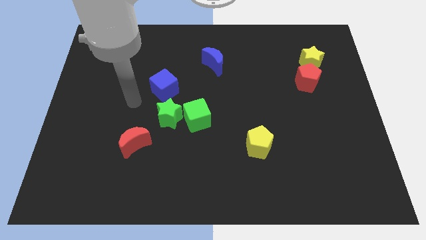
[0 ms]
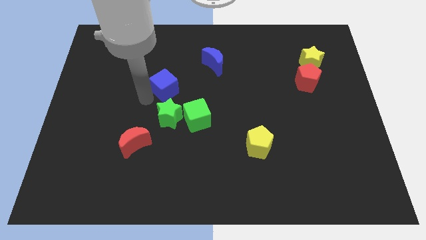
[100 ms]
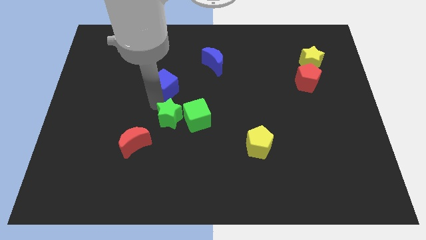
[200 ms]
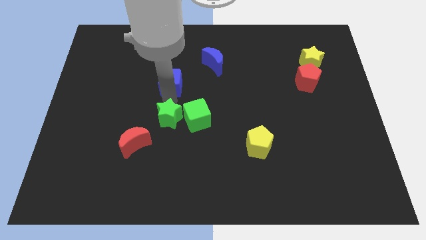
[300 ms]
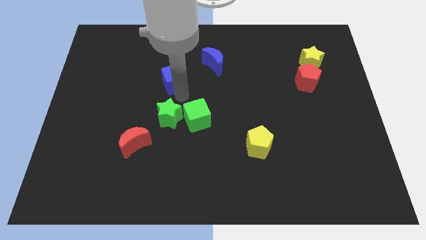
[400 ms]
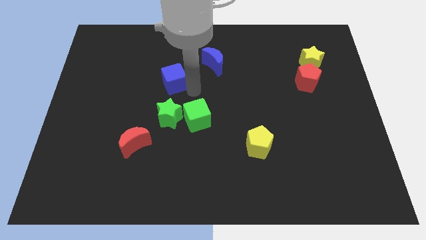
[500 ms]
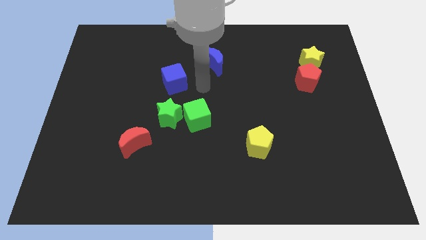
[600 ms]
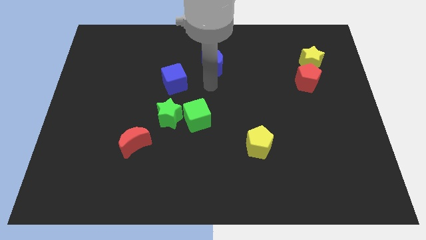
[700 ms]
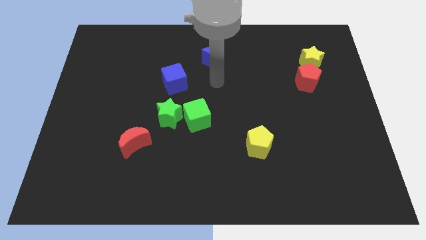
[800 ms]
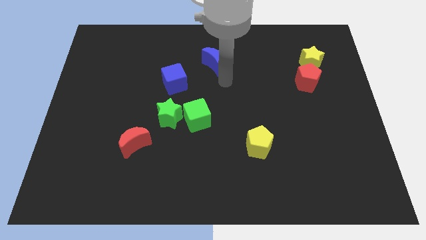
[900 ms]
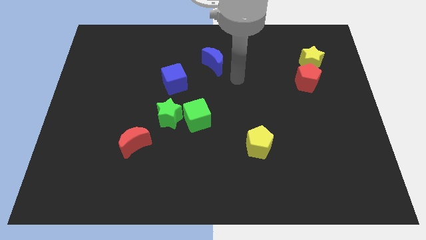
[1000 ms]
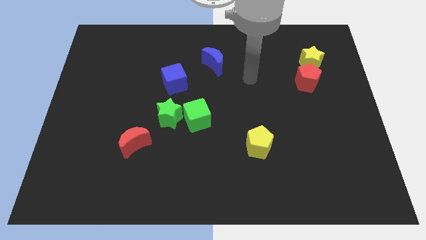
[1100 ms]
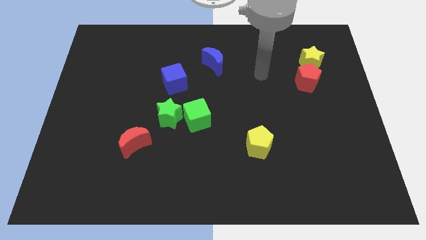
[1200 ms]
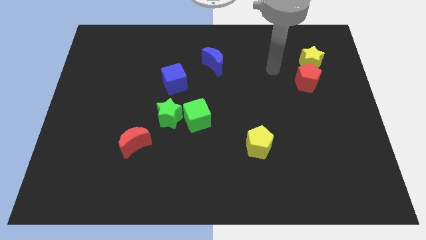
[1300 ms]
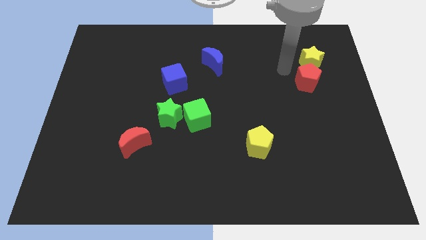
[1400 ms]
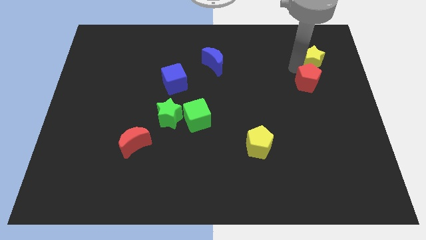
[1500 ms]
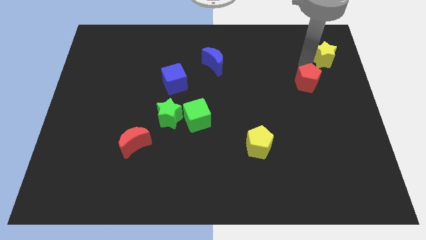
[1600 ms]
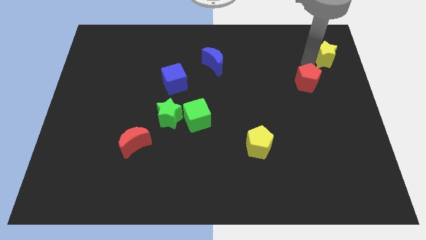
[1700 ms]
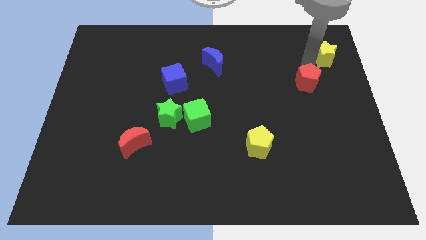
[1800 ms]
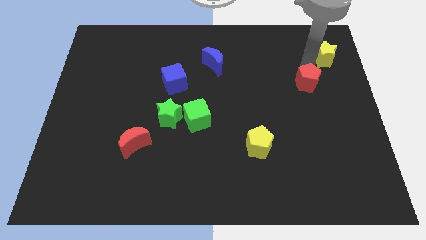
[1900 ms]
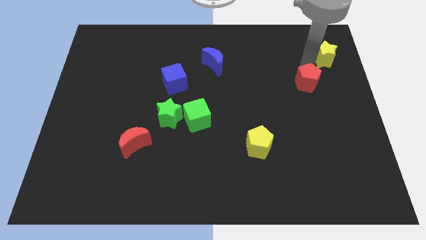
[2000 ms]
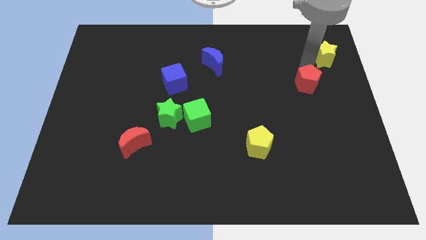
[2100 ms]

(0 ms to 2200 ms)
pull the red pentagon apart from the yellow star

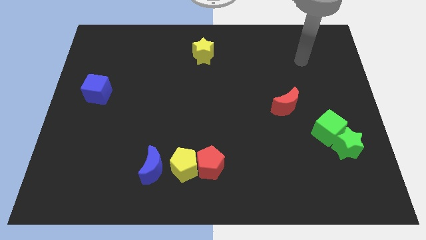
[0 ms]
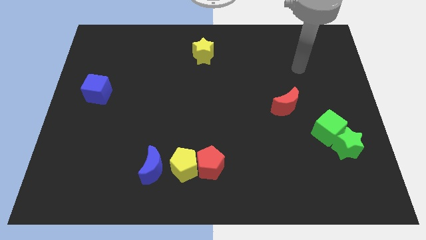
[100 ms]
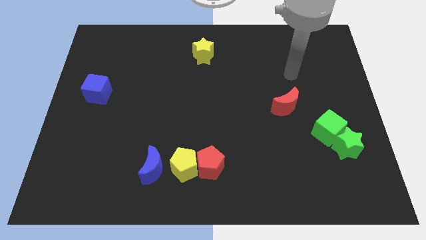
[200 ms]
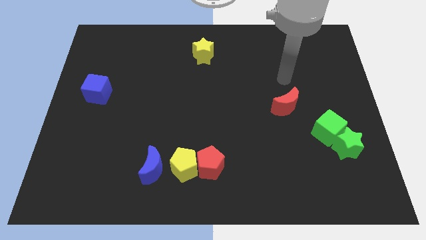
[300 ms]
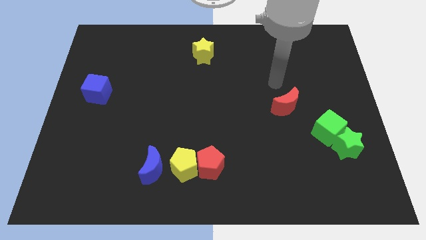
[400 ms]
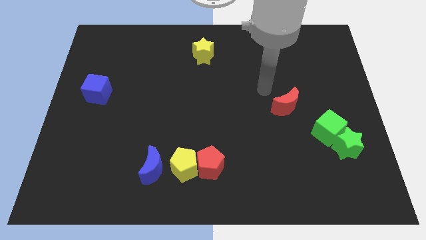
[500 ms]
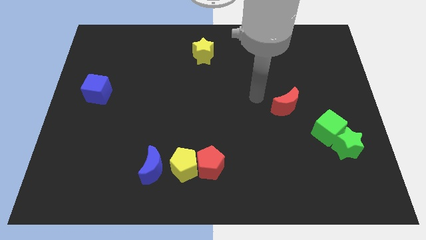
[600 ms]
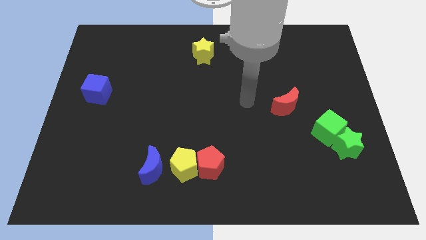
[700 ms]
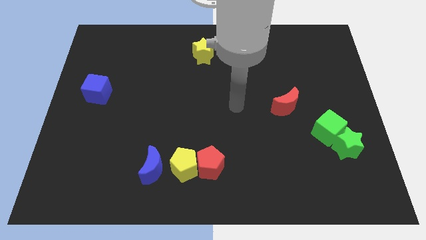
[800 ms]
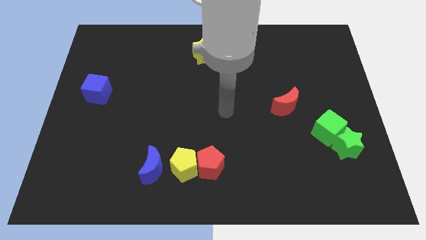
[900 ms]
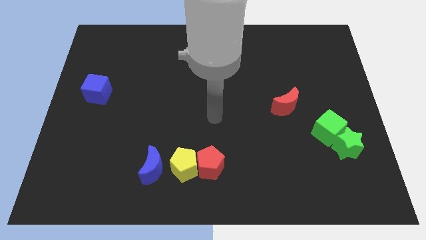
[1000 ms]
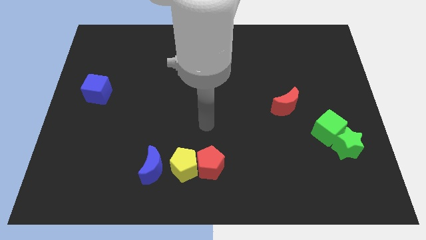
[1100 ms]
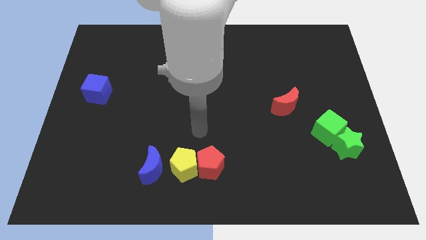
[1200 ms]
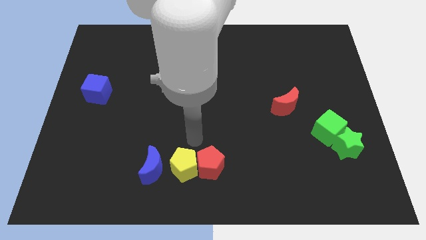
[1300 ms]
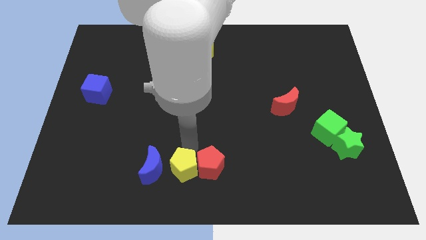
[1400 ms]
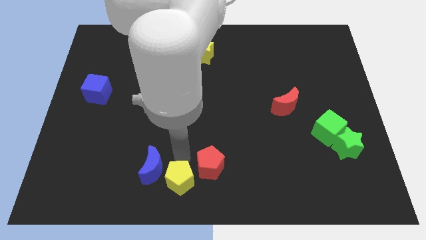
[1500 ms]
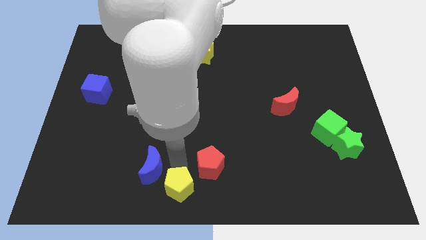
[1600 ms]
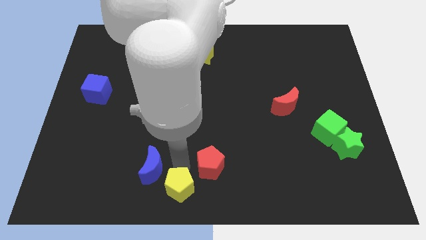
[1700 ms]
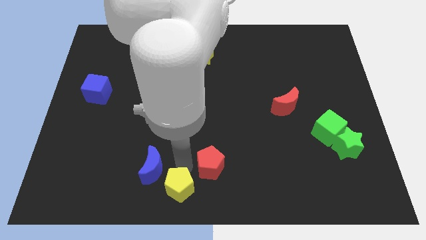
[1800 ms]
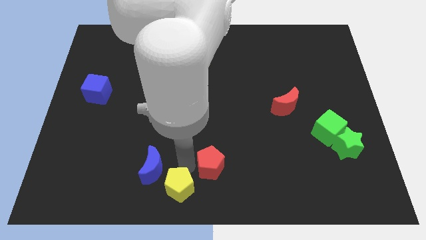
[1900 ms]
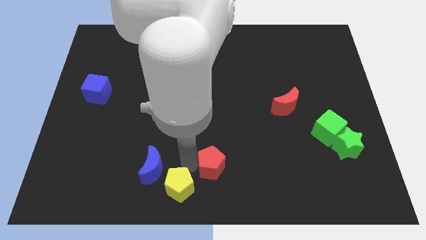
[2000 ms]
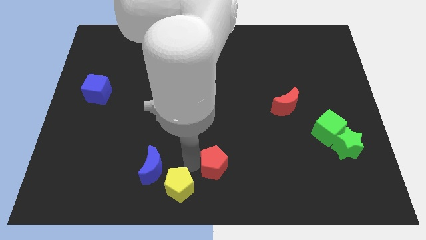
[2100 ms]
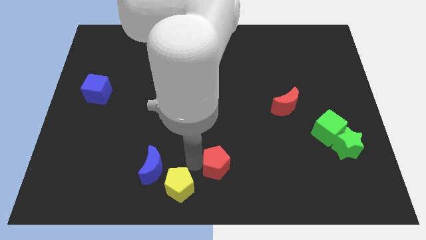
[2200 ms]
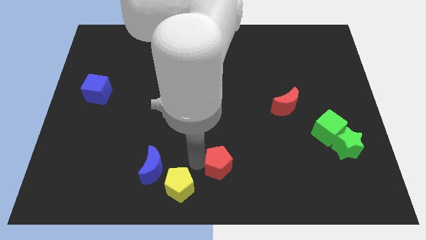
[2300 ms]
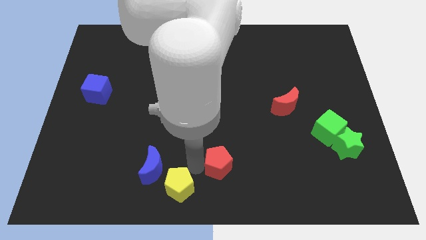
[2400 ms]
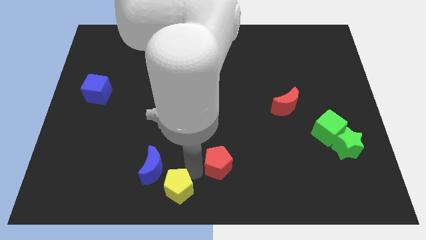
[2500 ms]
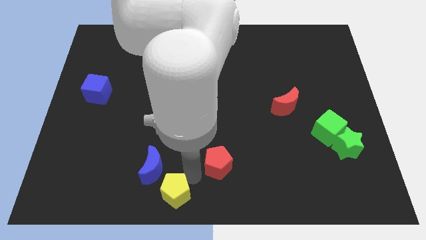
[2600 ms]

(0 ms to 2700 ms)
pull the red pentagon apart from the yellow pentagon

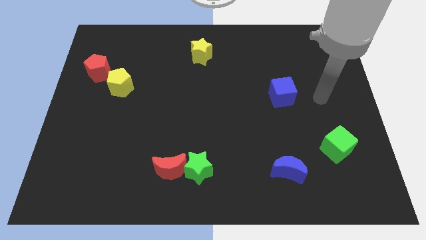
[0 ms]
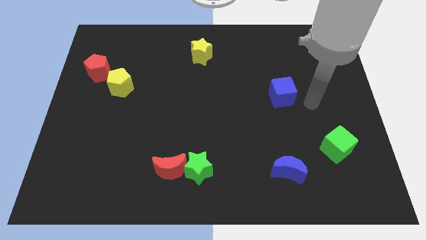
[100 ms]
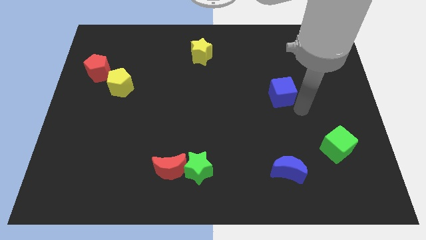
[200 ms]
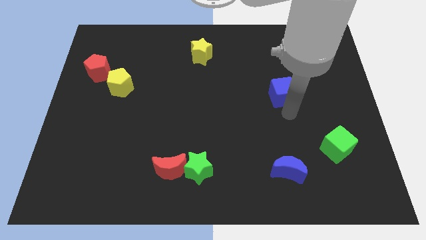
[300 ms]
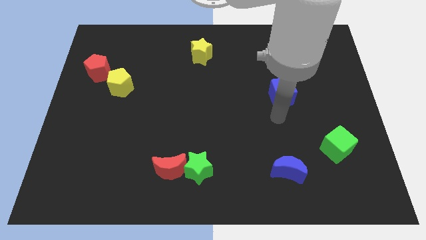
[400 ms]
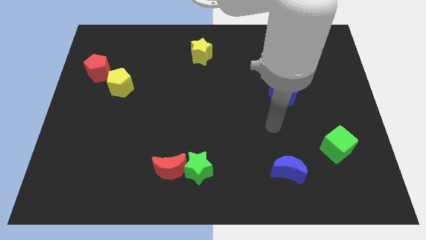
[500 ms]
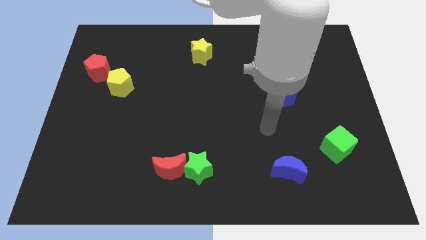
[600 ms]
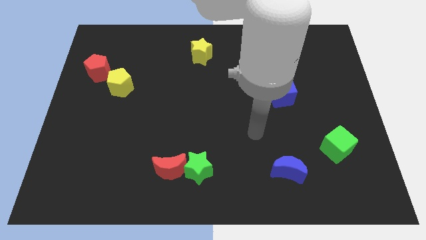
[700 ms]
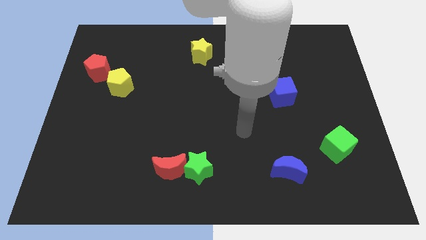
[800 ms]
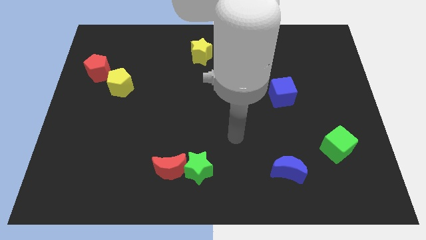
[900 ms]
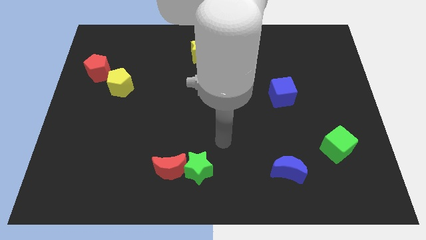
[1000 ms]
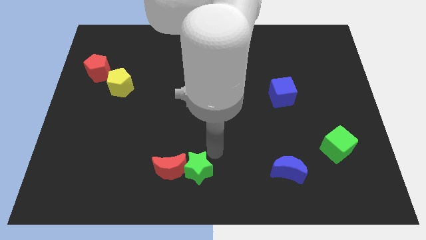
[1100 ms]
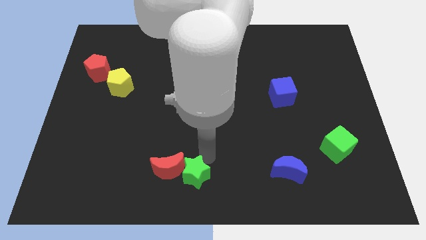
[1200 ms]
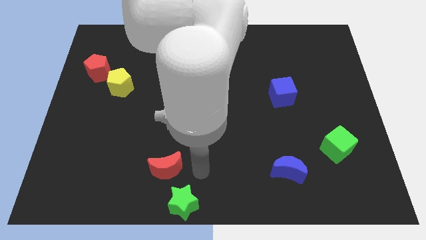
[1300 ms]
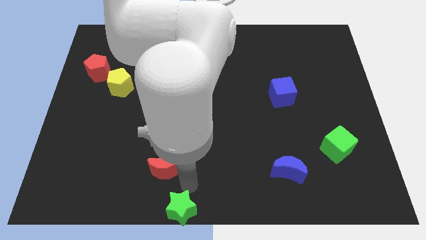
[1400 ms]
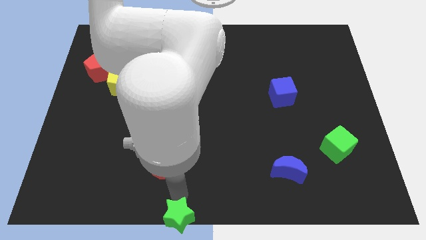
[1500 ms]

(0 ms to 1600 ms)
separate the red moon from the green star

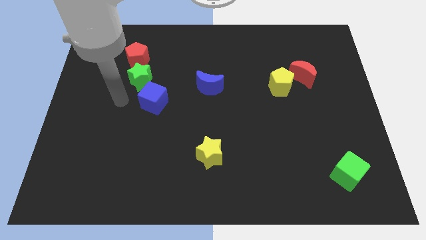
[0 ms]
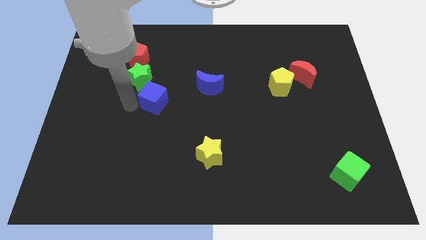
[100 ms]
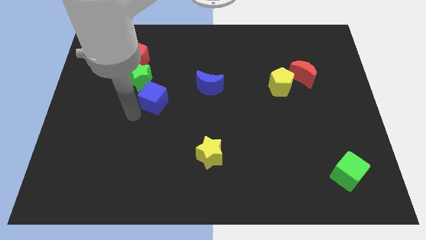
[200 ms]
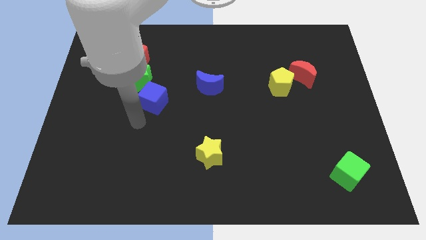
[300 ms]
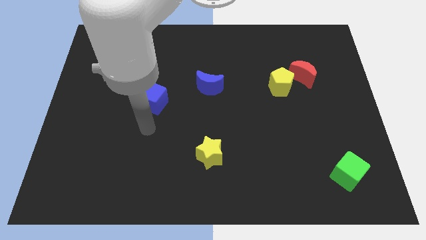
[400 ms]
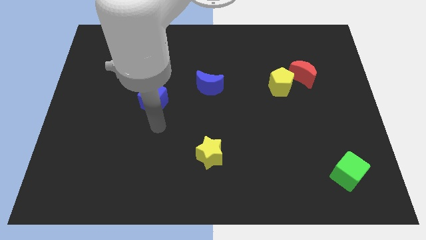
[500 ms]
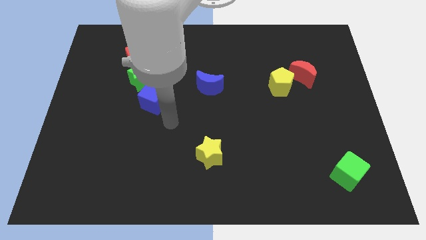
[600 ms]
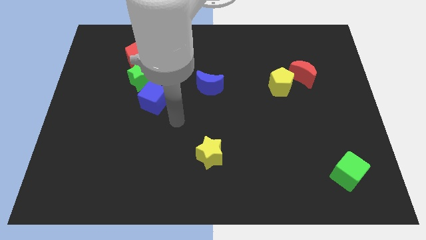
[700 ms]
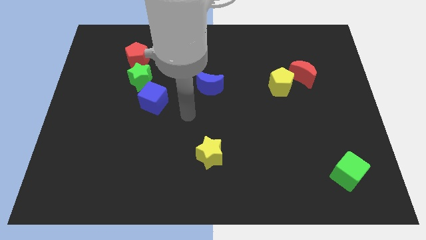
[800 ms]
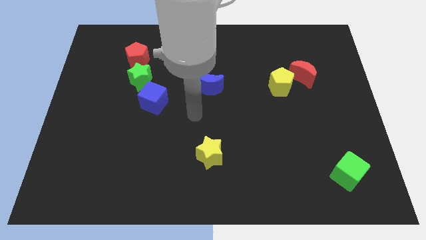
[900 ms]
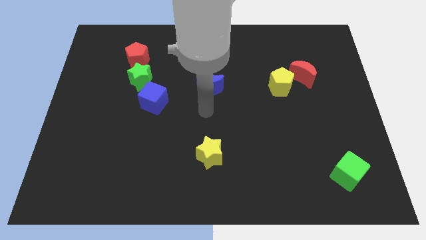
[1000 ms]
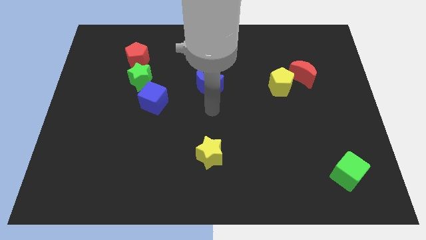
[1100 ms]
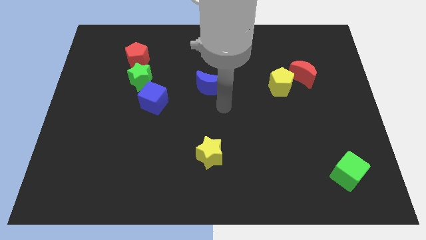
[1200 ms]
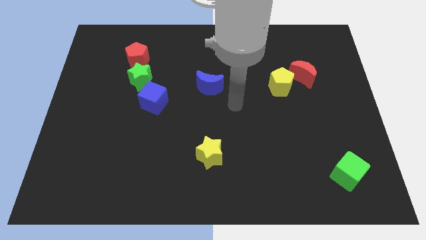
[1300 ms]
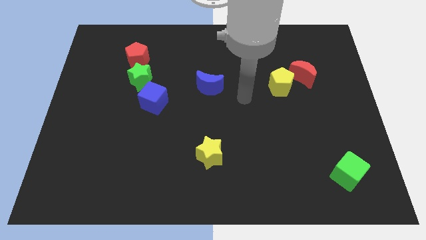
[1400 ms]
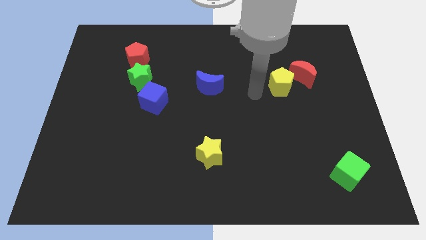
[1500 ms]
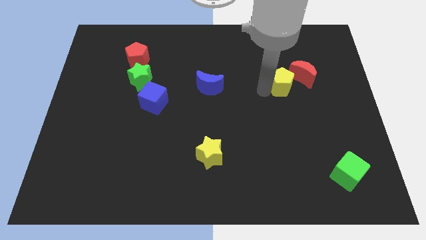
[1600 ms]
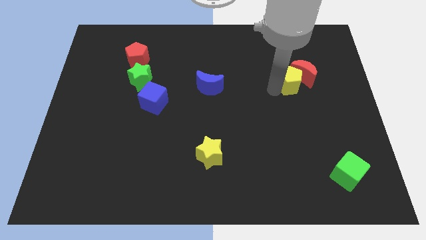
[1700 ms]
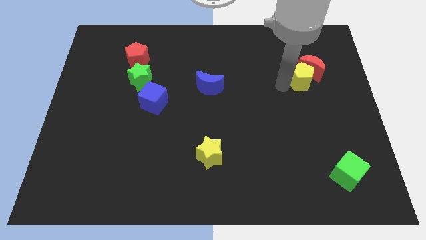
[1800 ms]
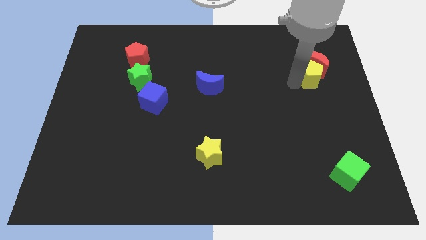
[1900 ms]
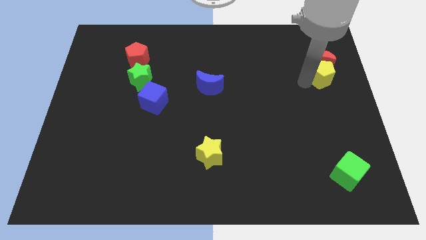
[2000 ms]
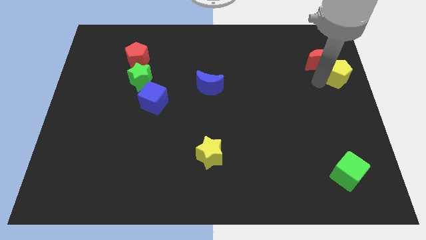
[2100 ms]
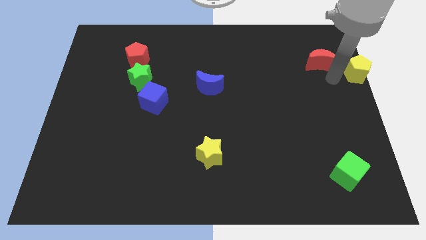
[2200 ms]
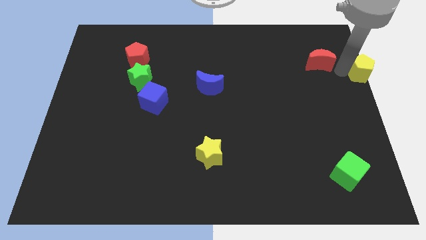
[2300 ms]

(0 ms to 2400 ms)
separate the red moon from the yellow pentagon

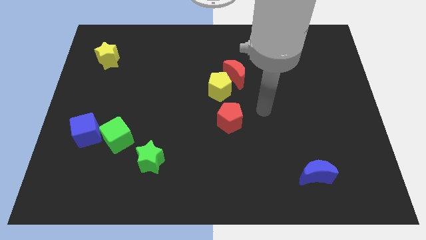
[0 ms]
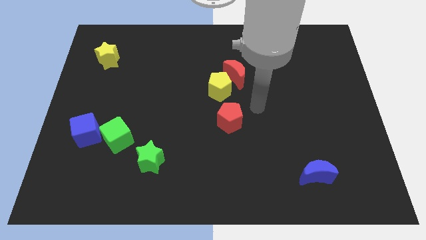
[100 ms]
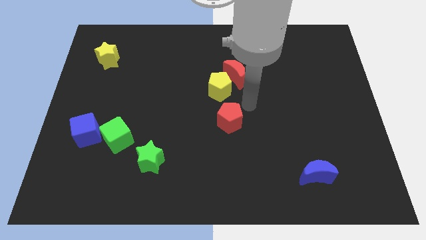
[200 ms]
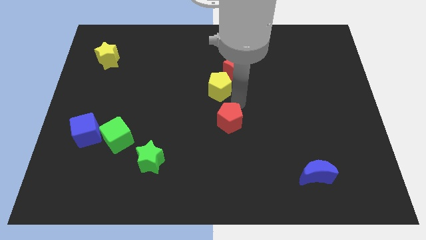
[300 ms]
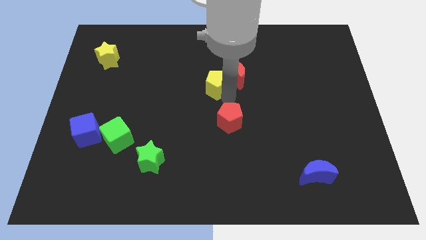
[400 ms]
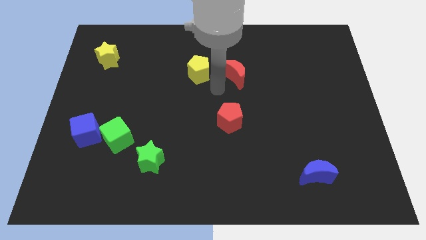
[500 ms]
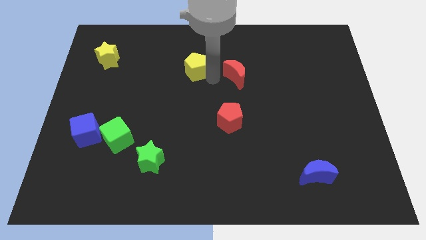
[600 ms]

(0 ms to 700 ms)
pull the red moon apart from the yellow pentagon
